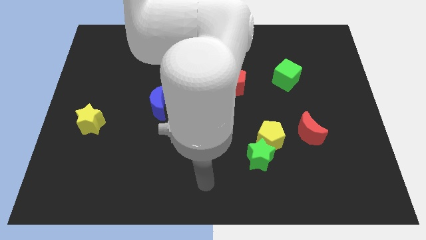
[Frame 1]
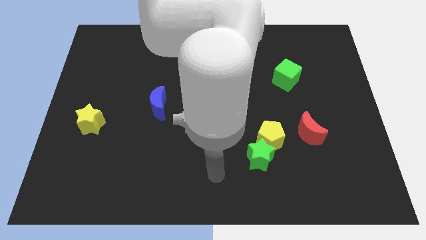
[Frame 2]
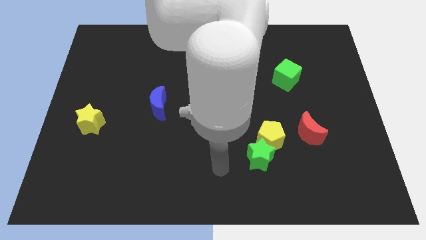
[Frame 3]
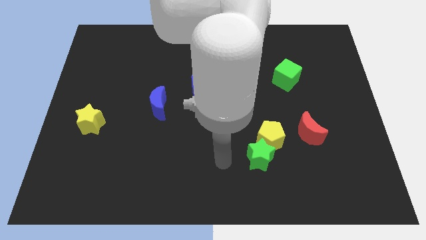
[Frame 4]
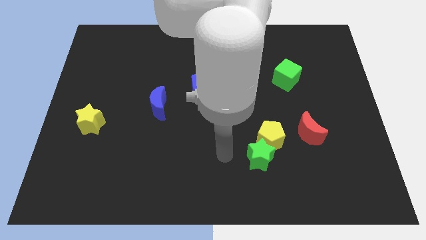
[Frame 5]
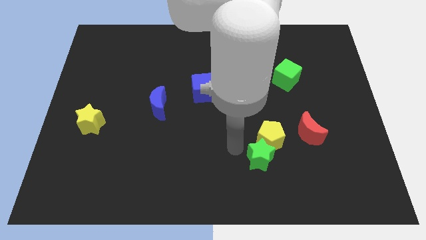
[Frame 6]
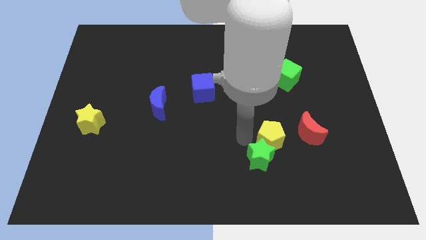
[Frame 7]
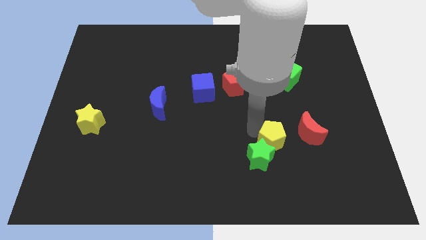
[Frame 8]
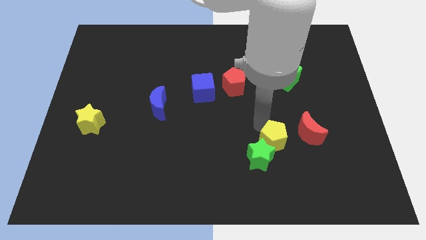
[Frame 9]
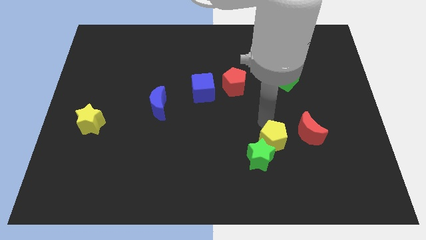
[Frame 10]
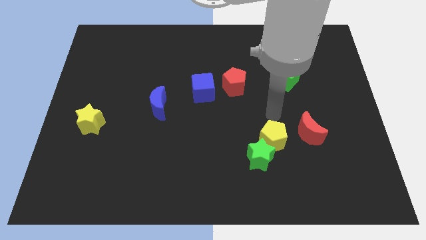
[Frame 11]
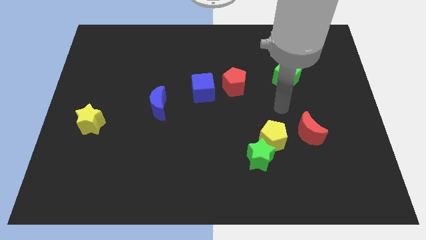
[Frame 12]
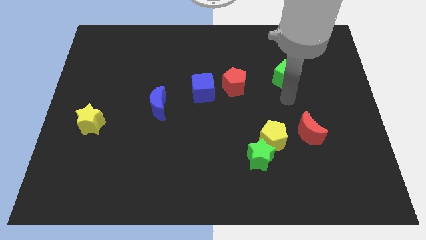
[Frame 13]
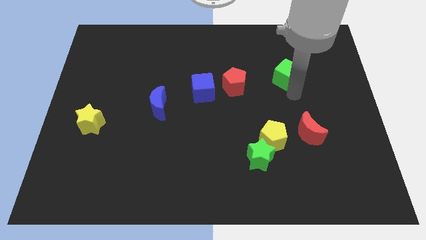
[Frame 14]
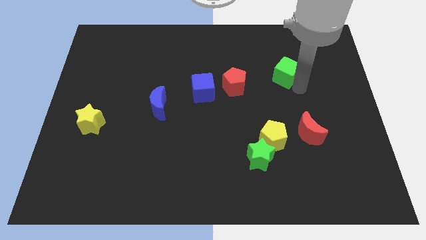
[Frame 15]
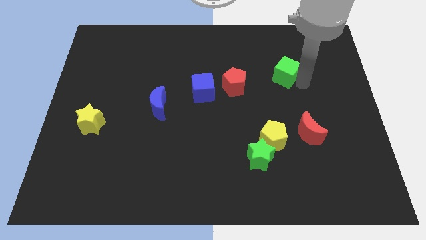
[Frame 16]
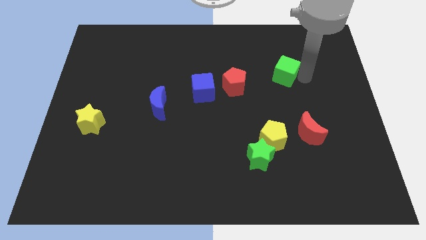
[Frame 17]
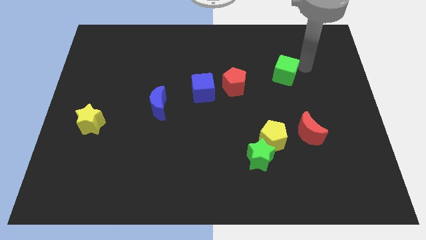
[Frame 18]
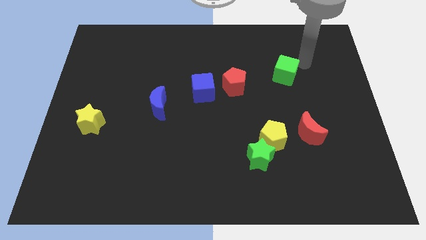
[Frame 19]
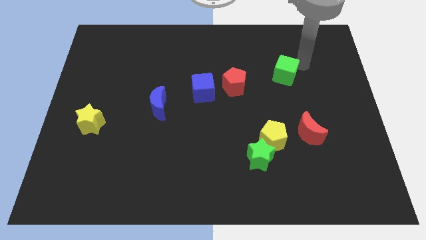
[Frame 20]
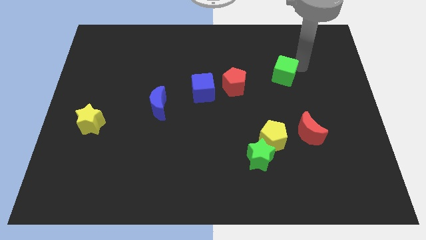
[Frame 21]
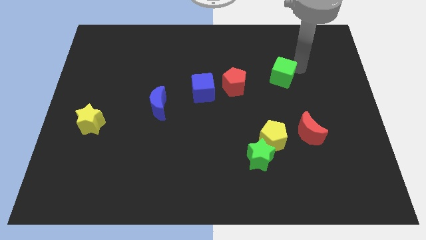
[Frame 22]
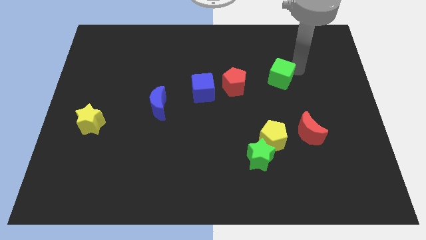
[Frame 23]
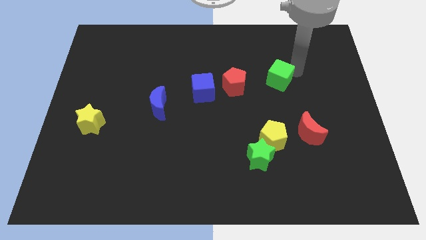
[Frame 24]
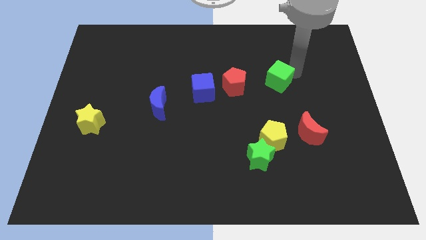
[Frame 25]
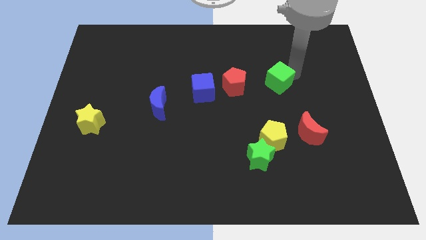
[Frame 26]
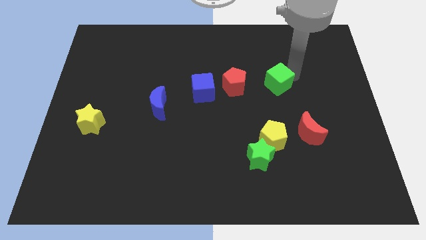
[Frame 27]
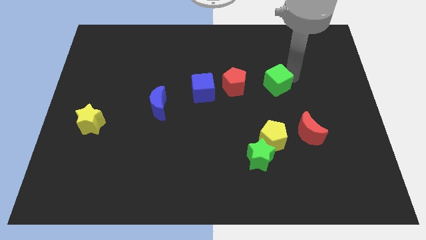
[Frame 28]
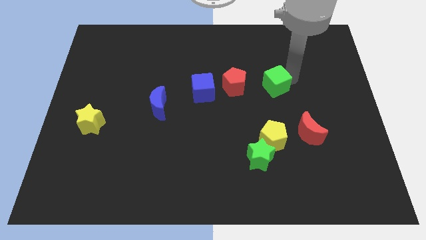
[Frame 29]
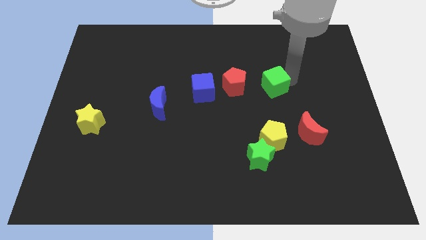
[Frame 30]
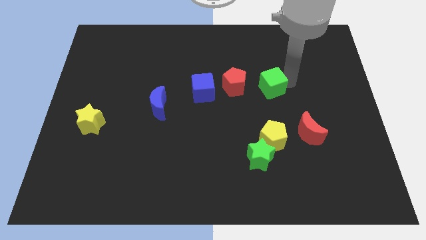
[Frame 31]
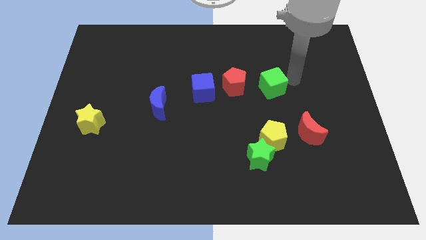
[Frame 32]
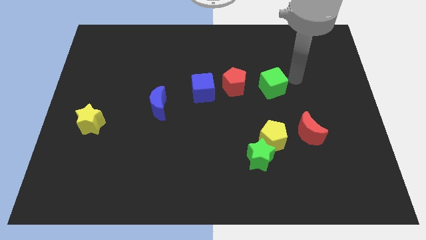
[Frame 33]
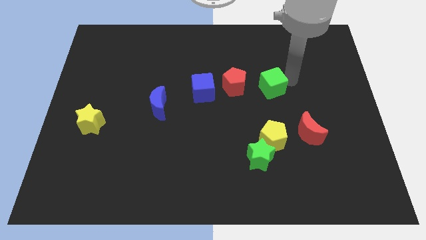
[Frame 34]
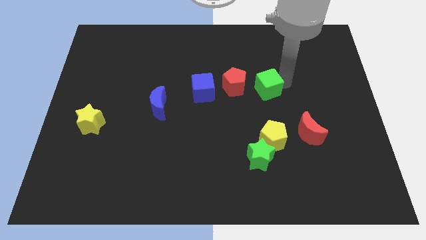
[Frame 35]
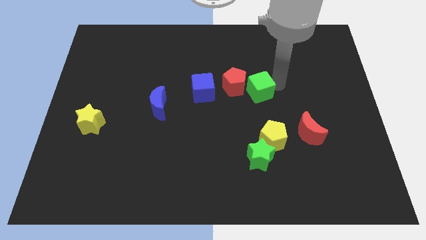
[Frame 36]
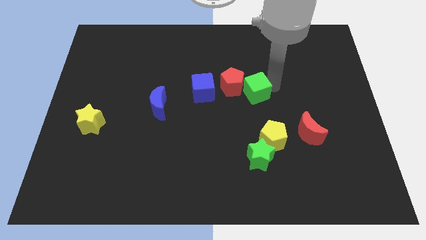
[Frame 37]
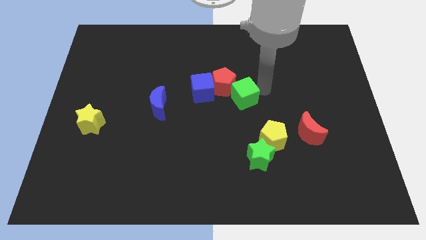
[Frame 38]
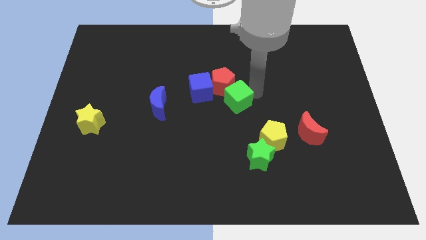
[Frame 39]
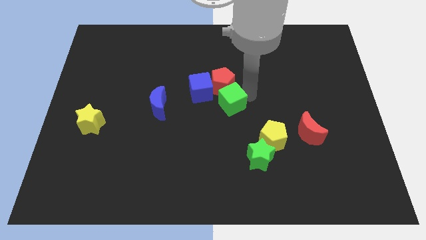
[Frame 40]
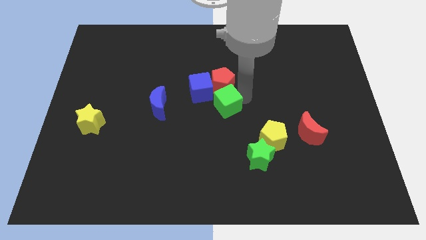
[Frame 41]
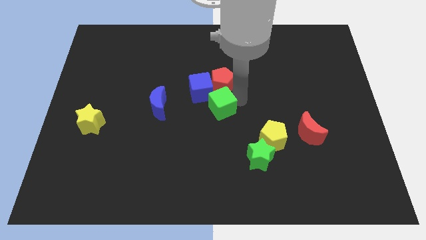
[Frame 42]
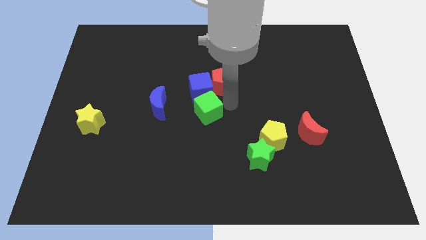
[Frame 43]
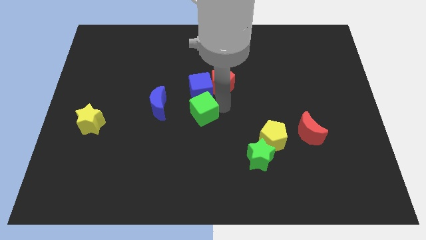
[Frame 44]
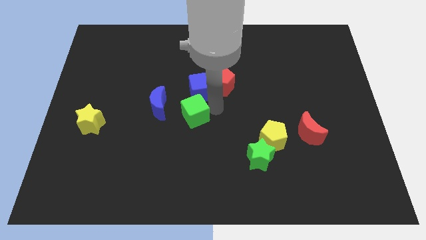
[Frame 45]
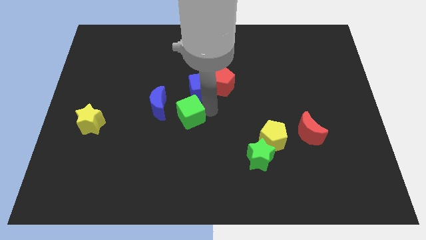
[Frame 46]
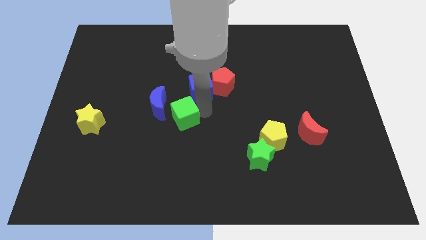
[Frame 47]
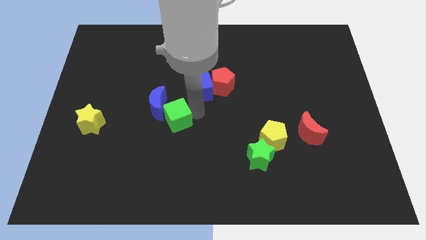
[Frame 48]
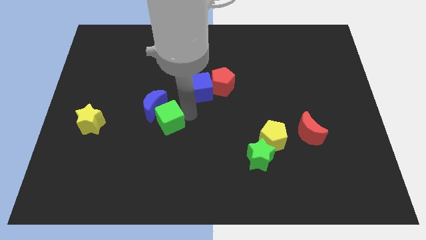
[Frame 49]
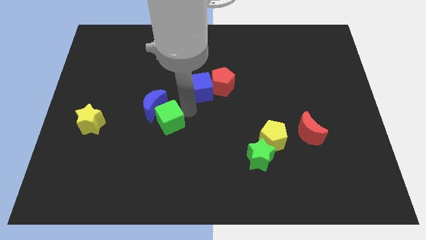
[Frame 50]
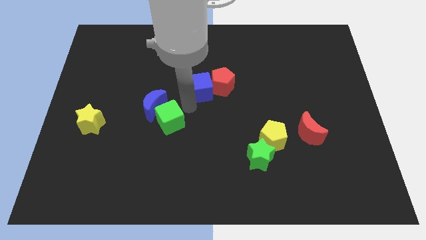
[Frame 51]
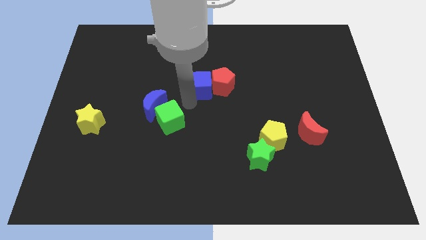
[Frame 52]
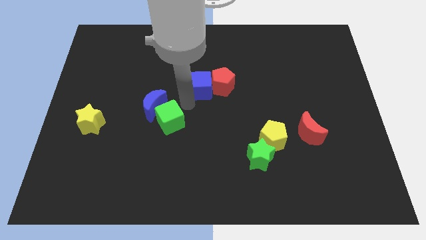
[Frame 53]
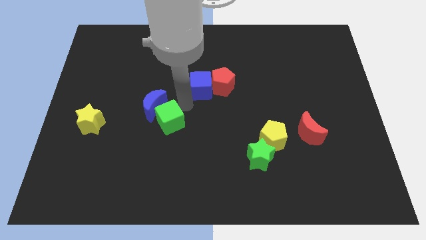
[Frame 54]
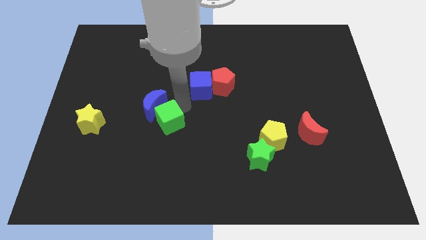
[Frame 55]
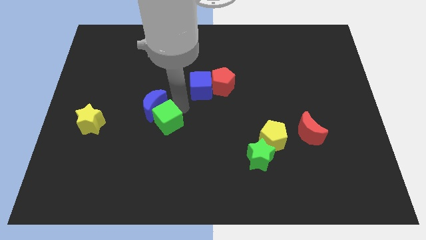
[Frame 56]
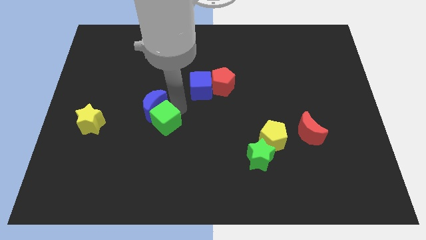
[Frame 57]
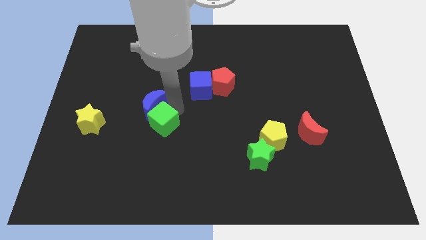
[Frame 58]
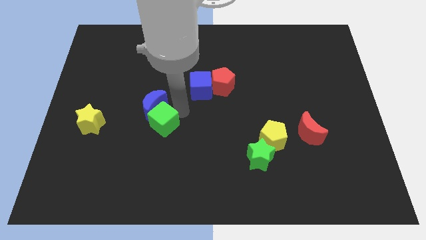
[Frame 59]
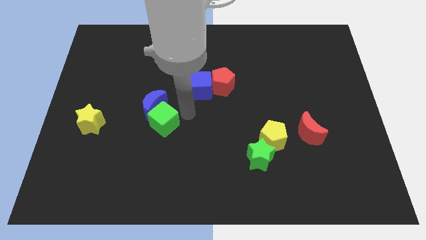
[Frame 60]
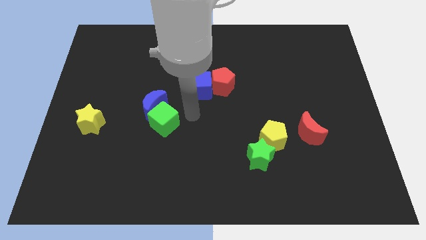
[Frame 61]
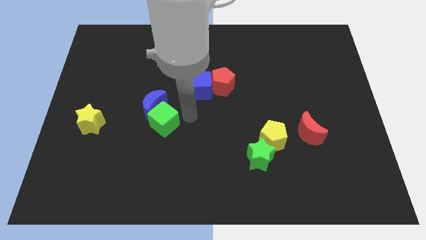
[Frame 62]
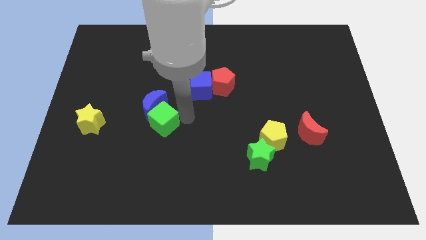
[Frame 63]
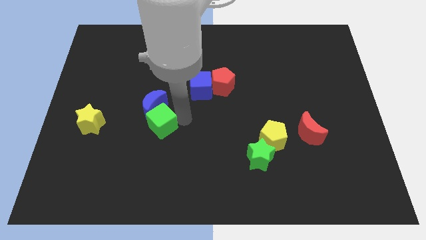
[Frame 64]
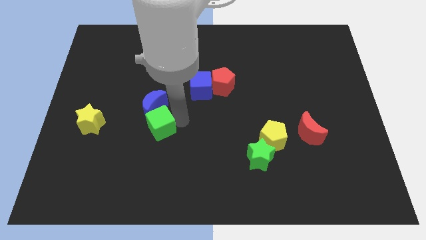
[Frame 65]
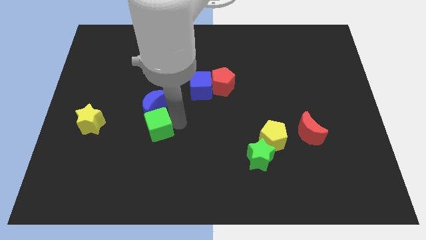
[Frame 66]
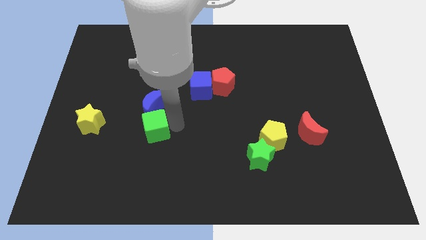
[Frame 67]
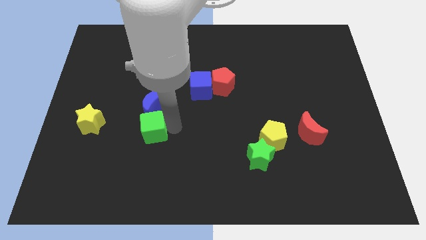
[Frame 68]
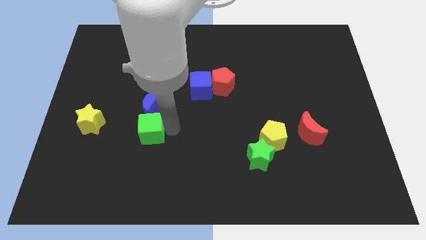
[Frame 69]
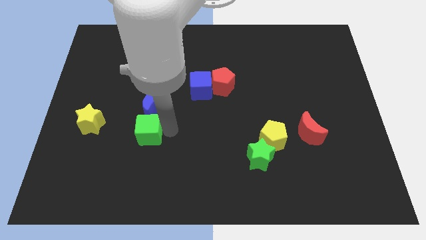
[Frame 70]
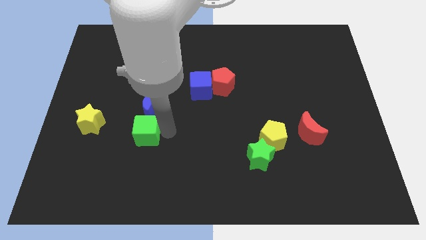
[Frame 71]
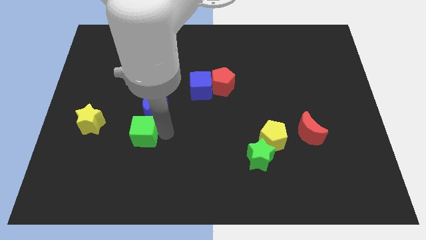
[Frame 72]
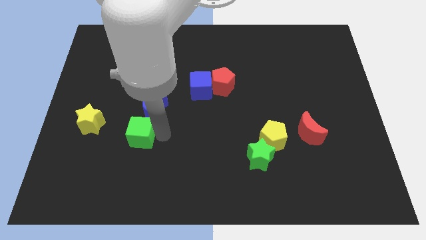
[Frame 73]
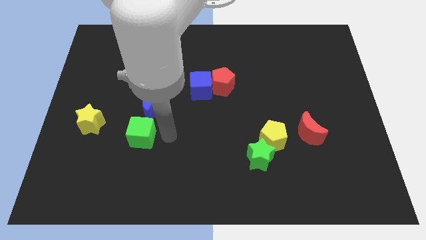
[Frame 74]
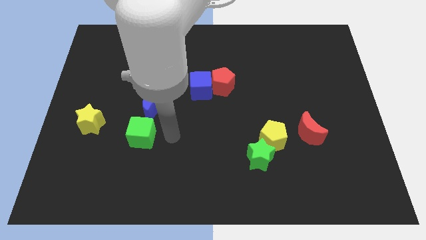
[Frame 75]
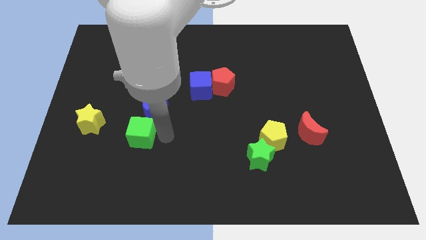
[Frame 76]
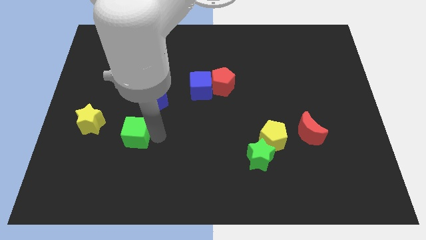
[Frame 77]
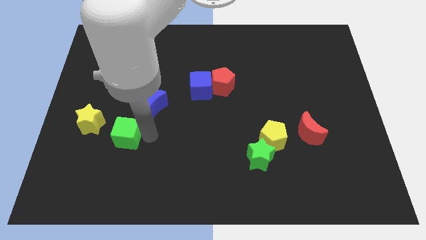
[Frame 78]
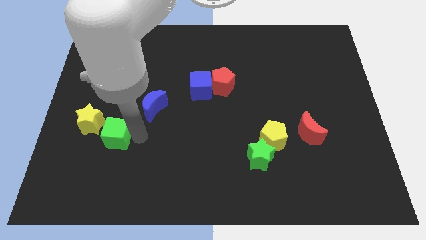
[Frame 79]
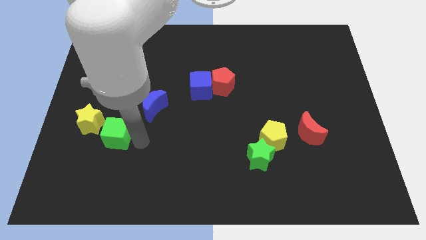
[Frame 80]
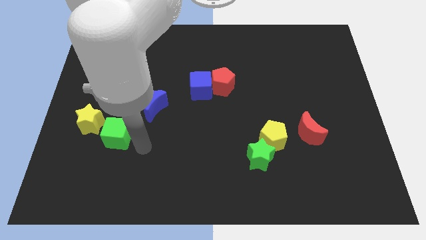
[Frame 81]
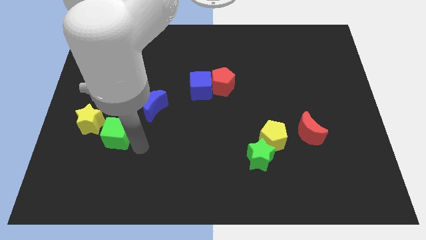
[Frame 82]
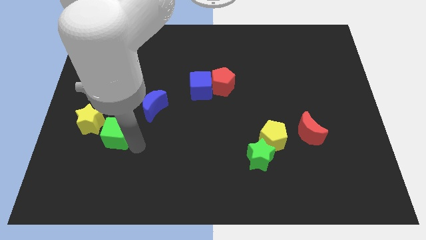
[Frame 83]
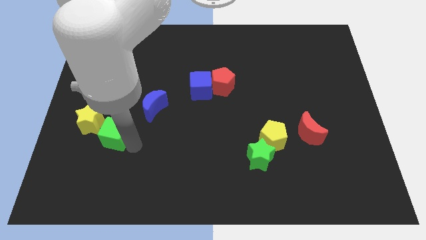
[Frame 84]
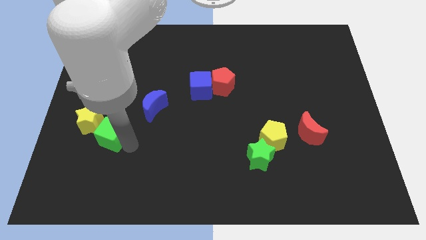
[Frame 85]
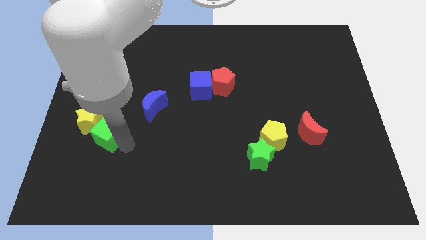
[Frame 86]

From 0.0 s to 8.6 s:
move the green cube close to the yellow star
